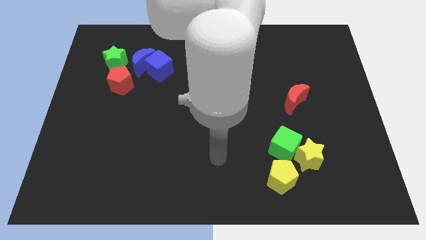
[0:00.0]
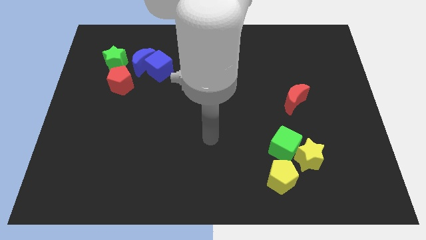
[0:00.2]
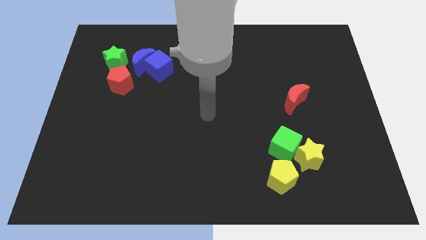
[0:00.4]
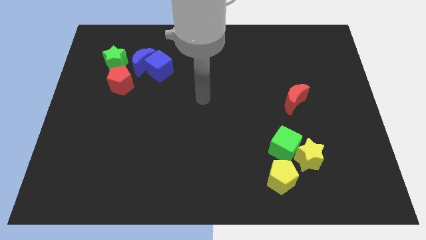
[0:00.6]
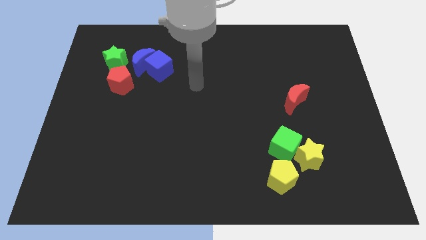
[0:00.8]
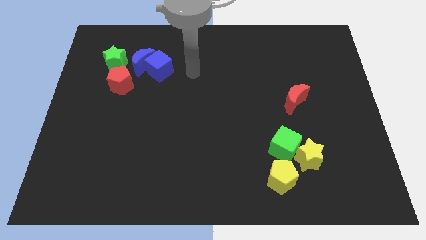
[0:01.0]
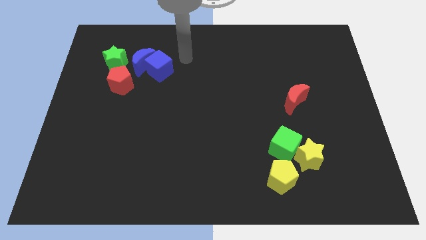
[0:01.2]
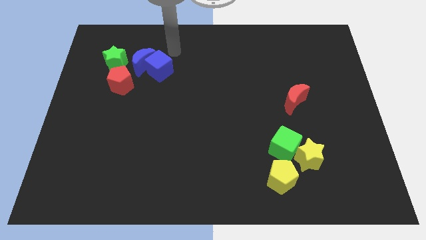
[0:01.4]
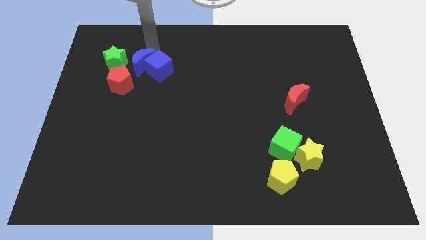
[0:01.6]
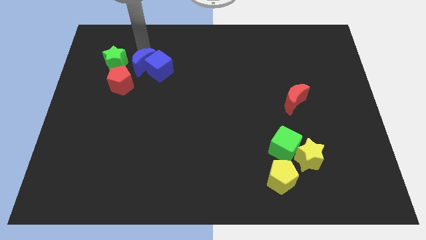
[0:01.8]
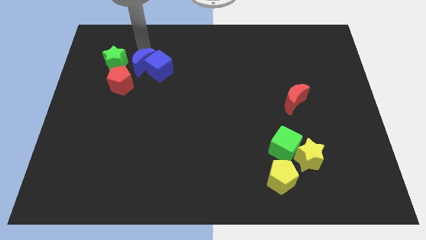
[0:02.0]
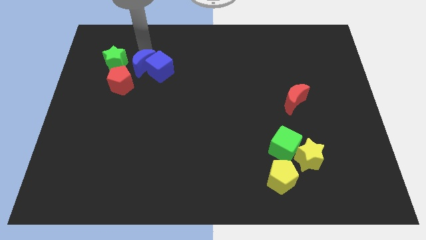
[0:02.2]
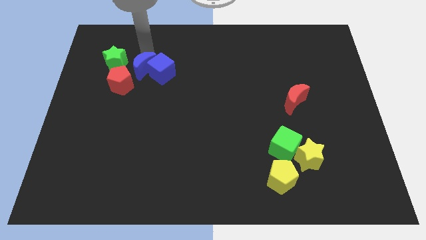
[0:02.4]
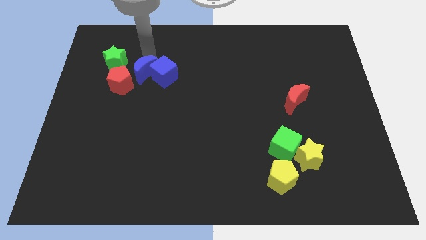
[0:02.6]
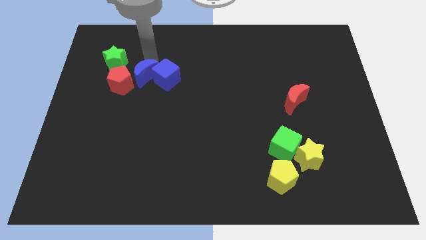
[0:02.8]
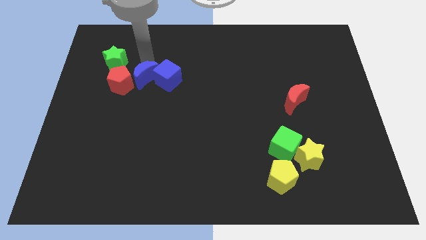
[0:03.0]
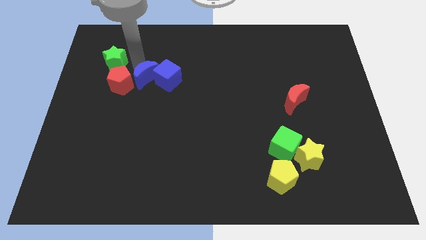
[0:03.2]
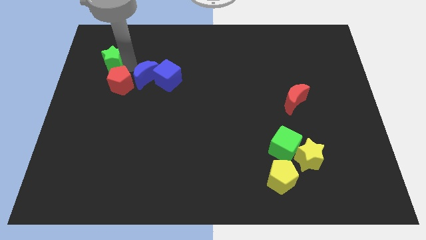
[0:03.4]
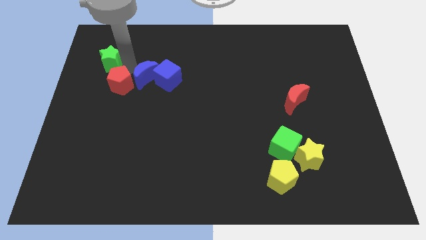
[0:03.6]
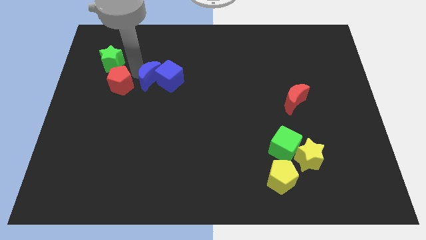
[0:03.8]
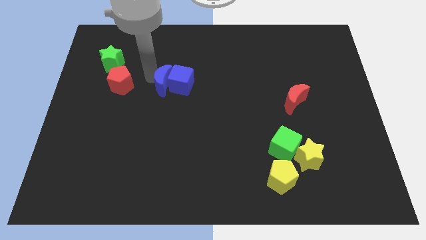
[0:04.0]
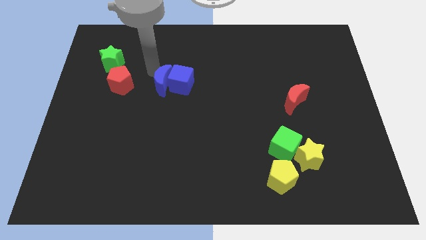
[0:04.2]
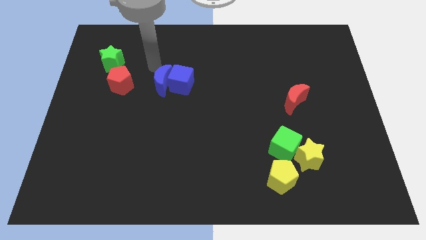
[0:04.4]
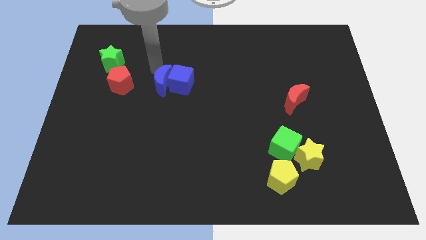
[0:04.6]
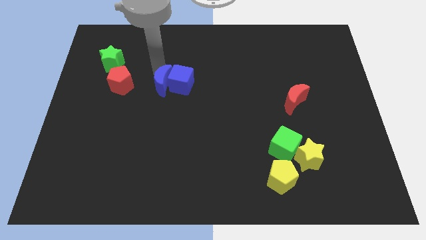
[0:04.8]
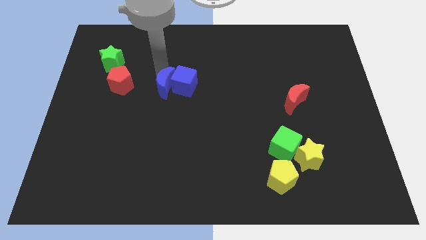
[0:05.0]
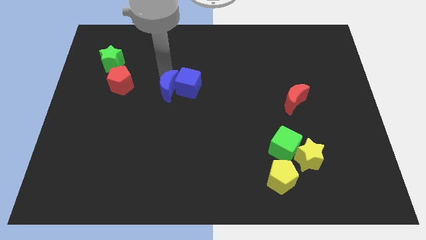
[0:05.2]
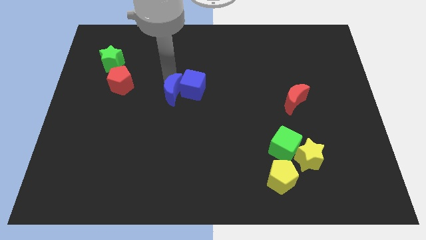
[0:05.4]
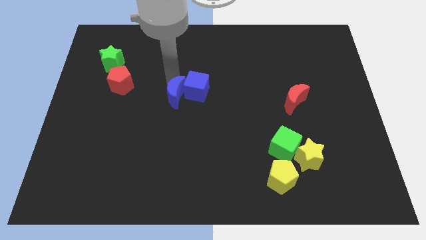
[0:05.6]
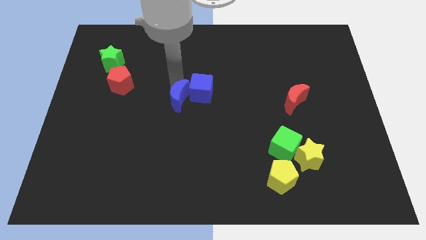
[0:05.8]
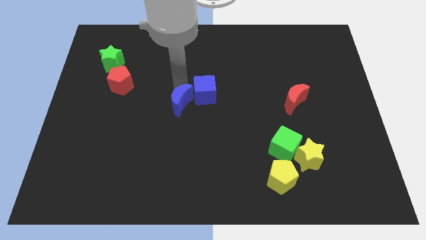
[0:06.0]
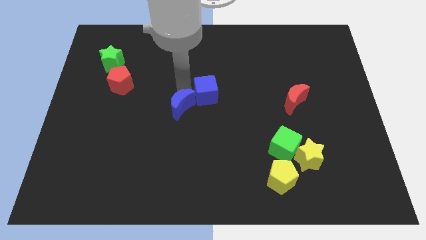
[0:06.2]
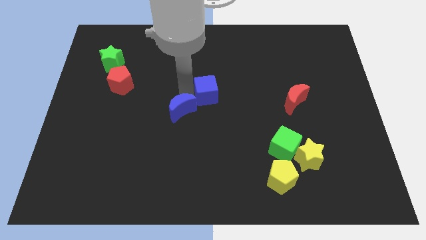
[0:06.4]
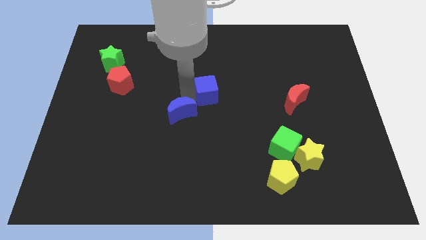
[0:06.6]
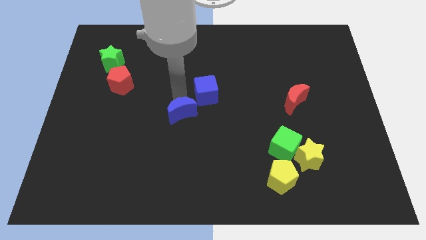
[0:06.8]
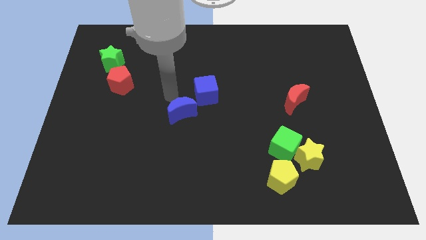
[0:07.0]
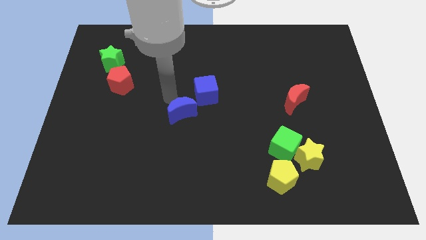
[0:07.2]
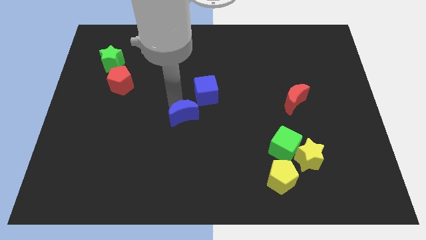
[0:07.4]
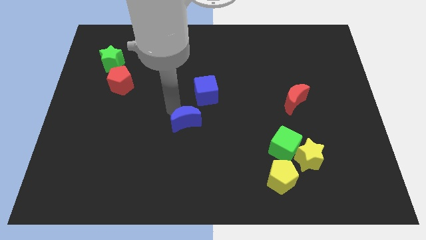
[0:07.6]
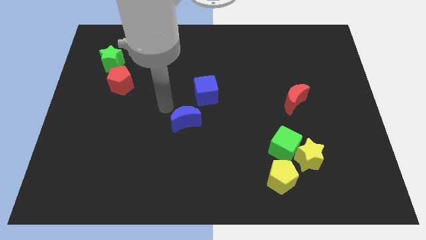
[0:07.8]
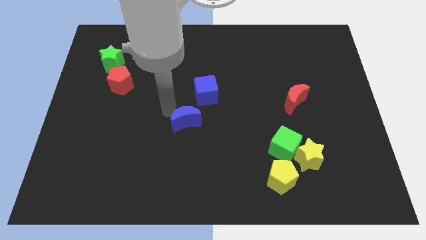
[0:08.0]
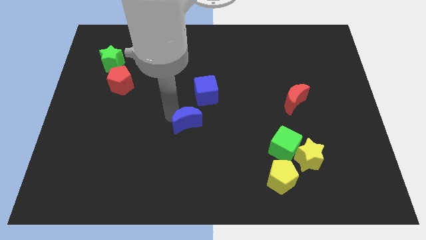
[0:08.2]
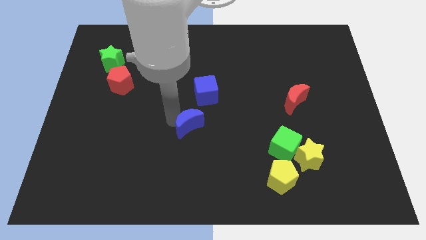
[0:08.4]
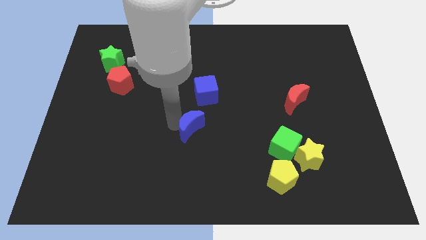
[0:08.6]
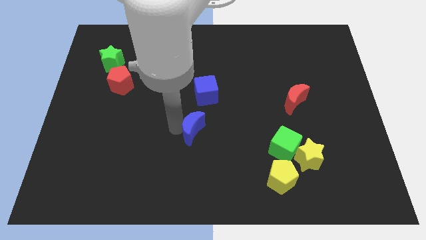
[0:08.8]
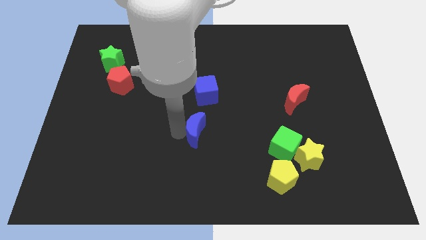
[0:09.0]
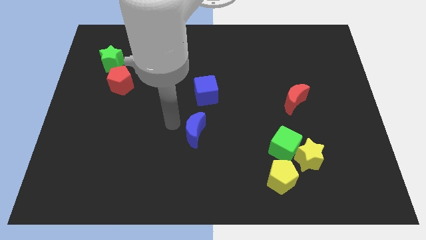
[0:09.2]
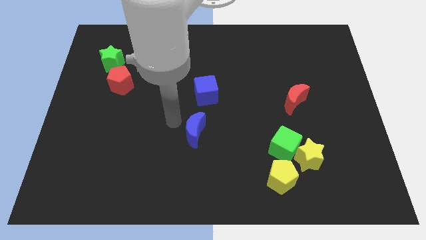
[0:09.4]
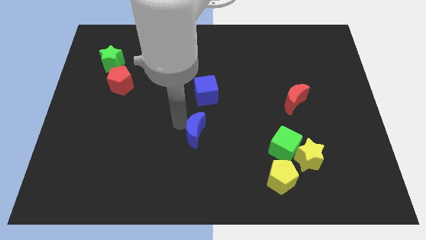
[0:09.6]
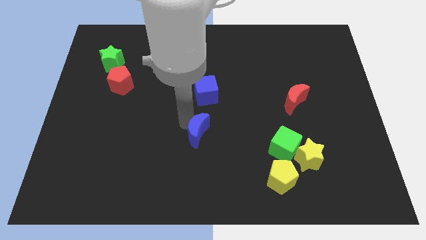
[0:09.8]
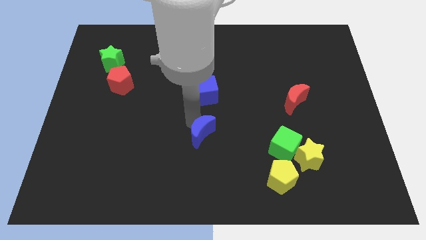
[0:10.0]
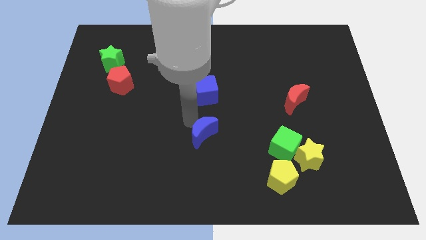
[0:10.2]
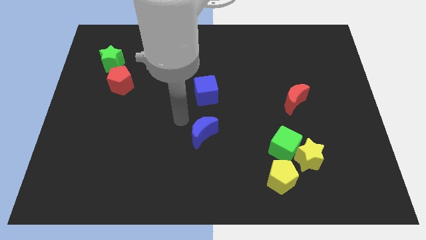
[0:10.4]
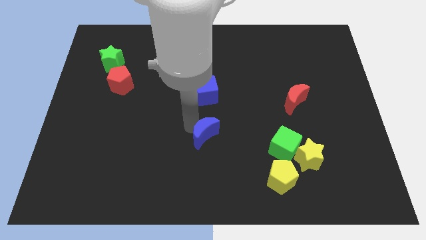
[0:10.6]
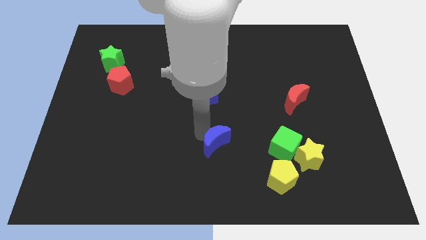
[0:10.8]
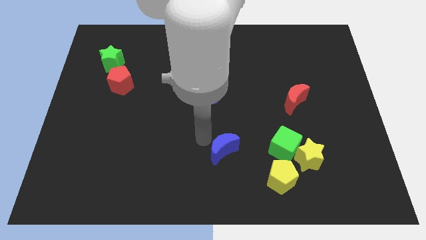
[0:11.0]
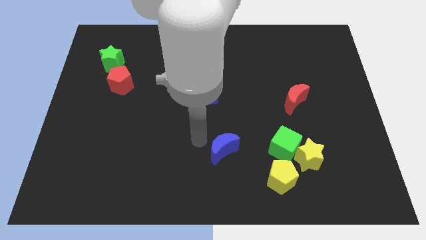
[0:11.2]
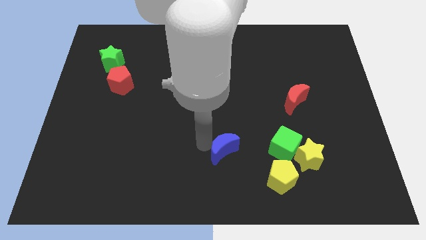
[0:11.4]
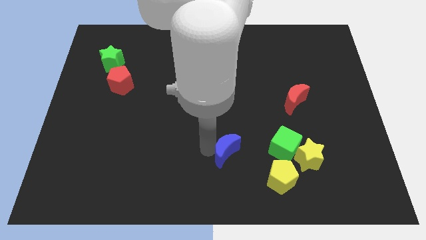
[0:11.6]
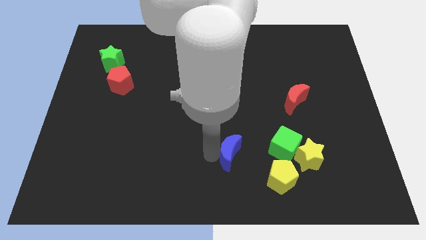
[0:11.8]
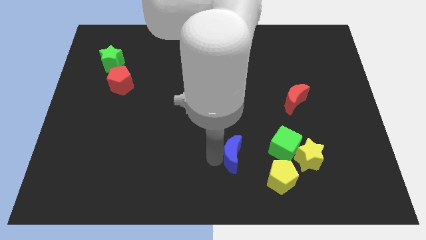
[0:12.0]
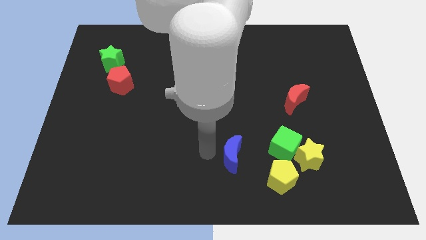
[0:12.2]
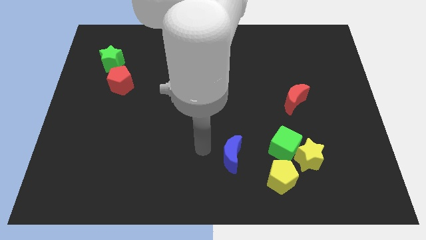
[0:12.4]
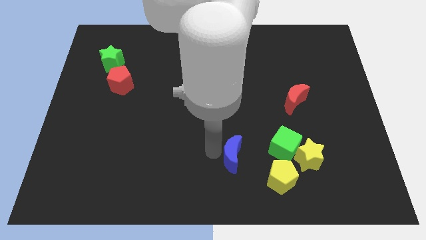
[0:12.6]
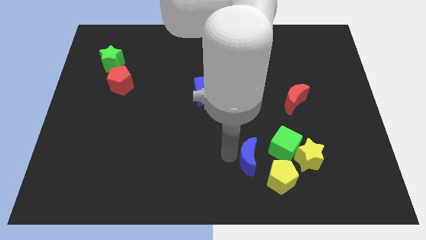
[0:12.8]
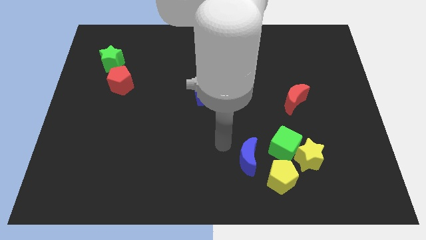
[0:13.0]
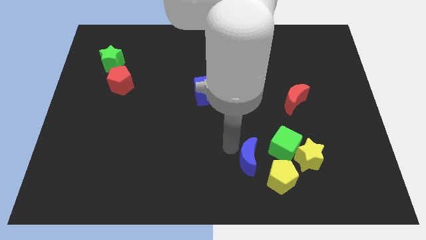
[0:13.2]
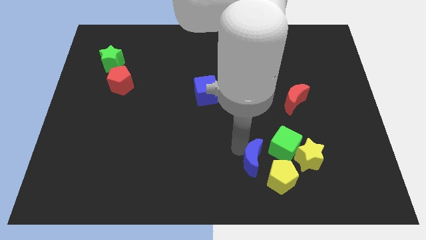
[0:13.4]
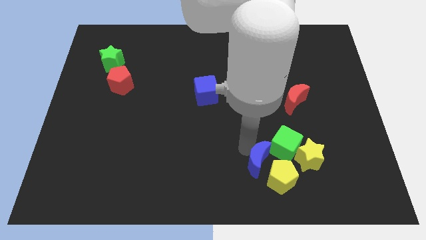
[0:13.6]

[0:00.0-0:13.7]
put the blue moon close to the yellow pentagon
